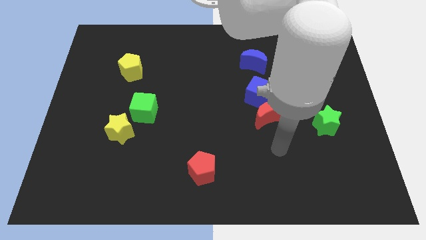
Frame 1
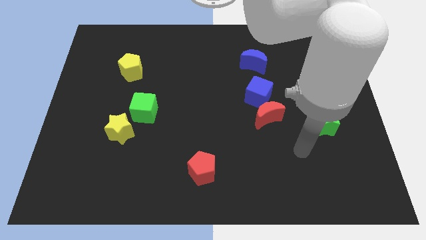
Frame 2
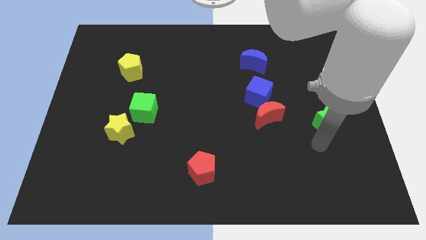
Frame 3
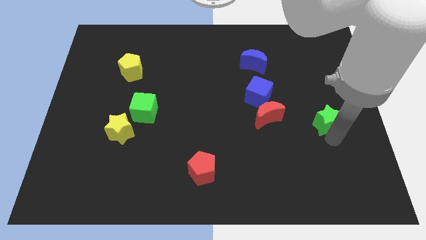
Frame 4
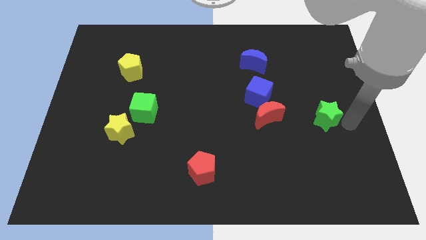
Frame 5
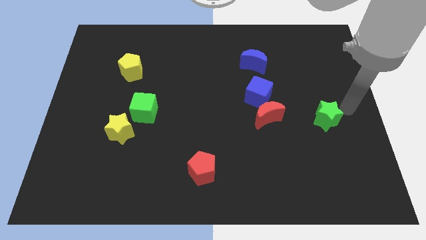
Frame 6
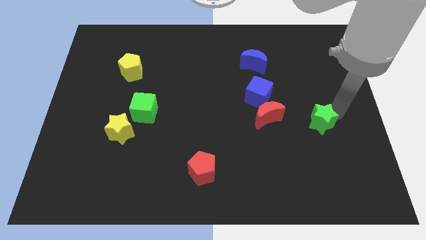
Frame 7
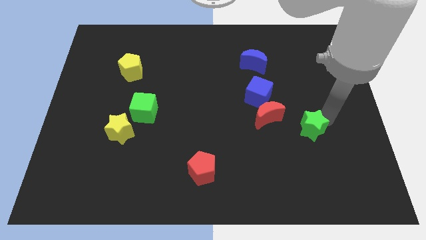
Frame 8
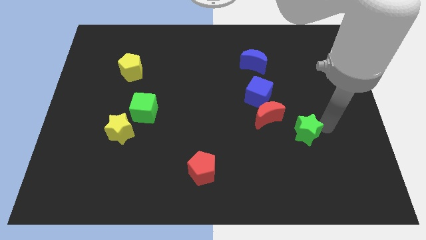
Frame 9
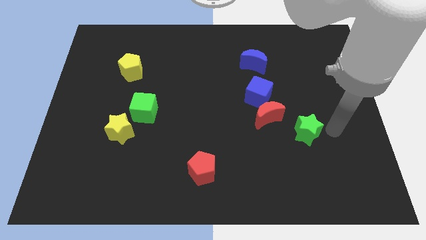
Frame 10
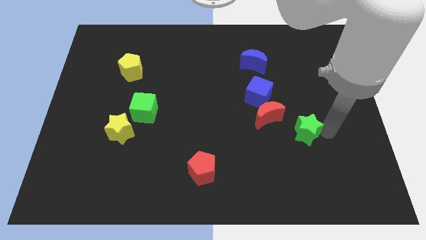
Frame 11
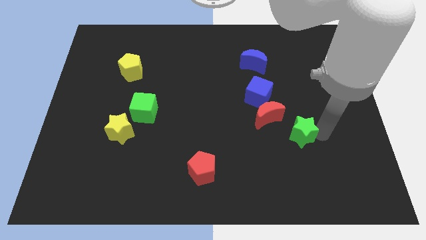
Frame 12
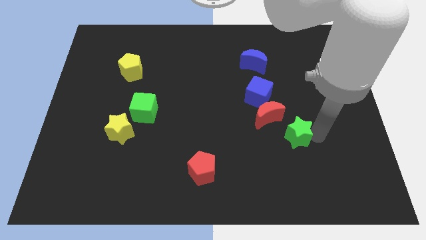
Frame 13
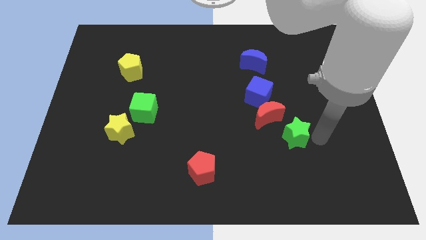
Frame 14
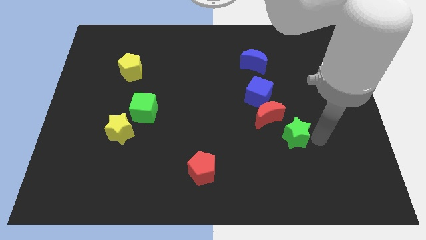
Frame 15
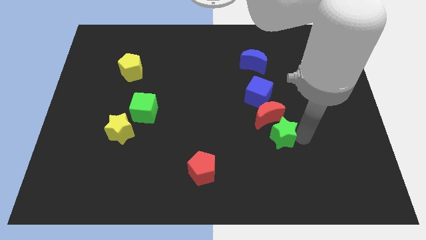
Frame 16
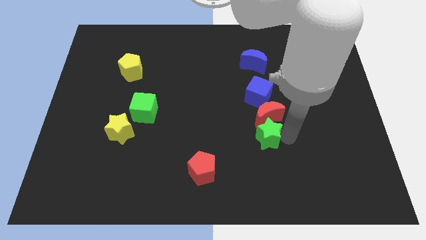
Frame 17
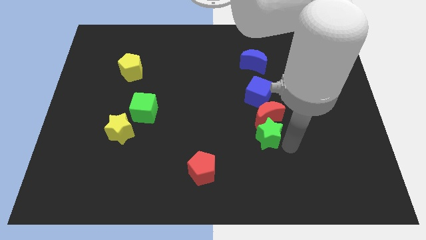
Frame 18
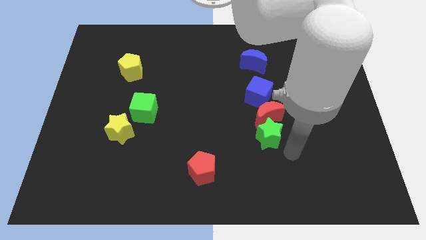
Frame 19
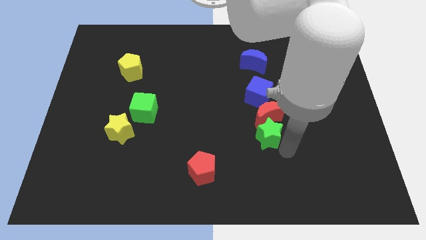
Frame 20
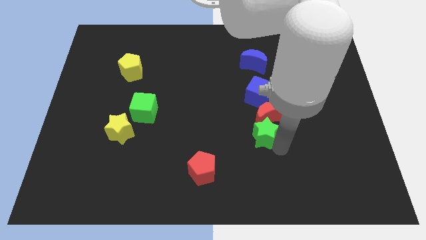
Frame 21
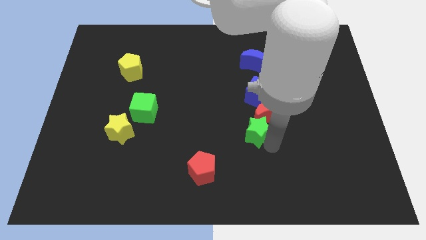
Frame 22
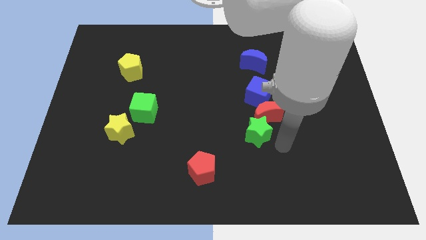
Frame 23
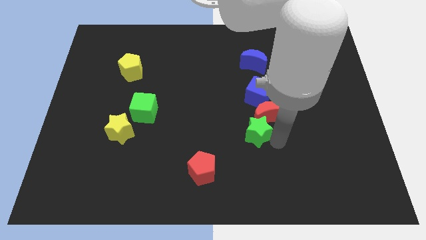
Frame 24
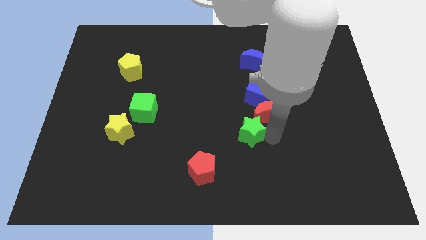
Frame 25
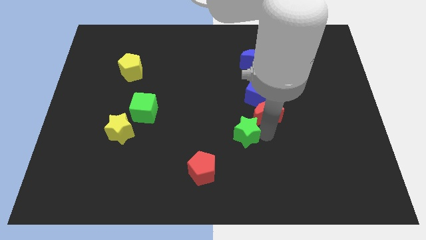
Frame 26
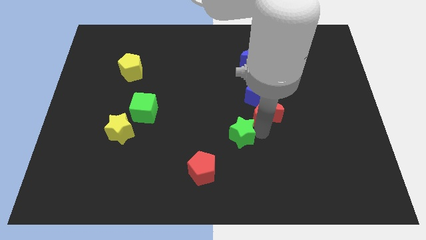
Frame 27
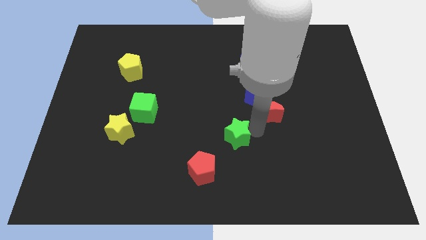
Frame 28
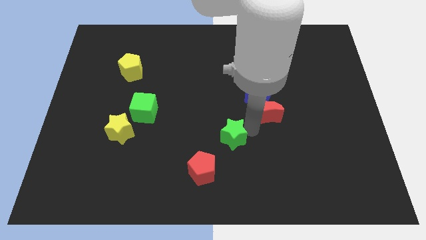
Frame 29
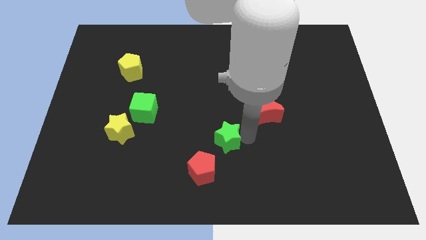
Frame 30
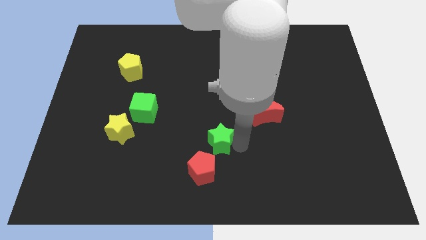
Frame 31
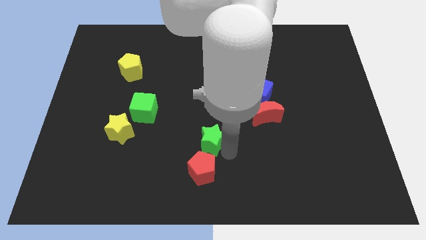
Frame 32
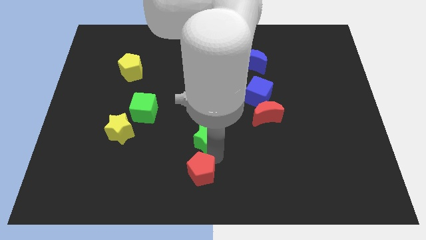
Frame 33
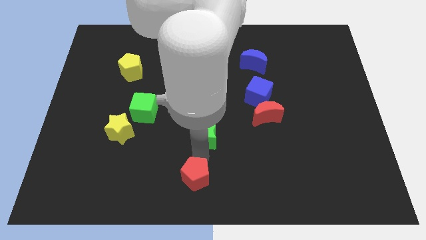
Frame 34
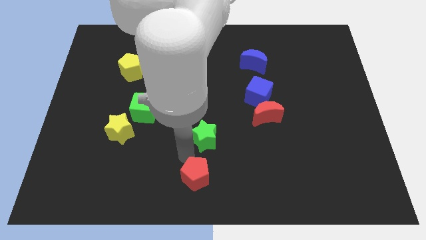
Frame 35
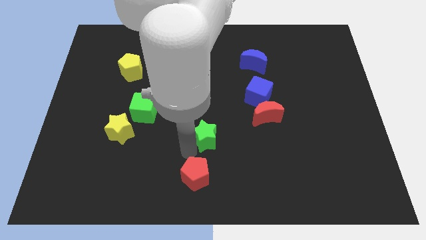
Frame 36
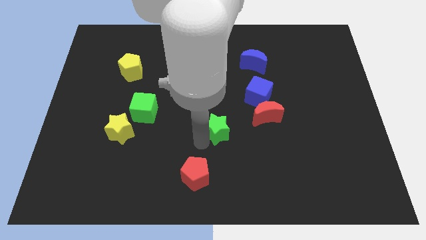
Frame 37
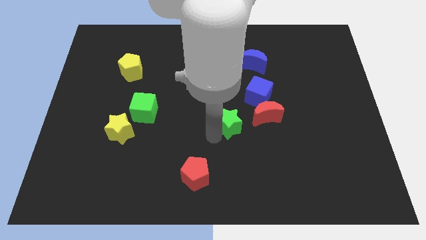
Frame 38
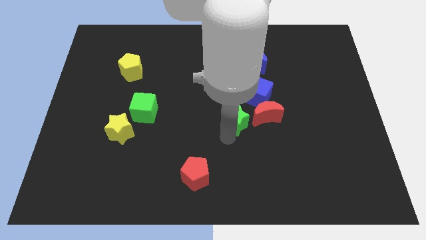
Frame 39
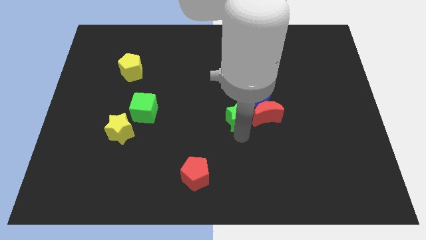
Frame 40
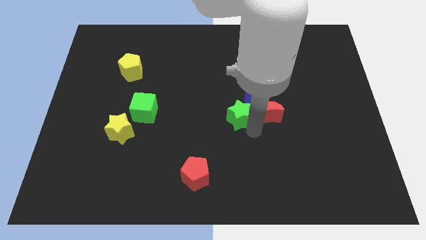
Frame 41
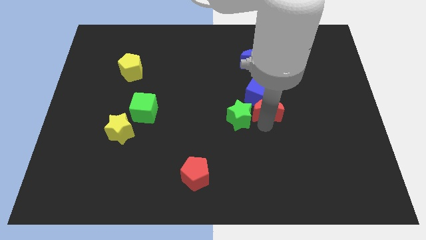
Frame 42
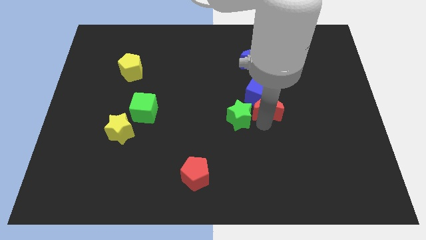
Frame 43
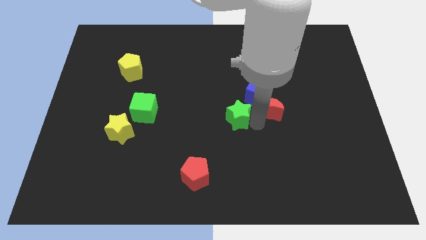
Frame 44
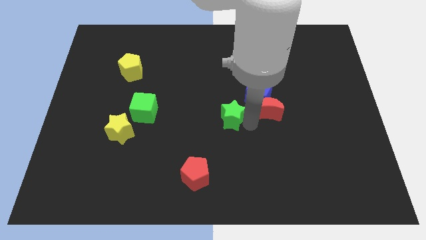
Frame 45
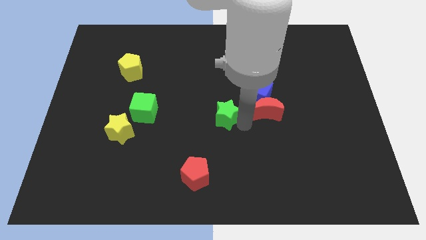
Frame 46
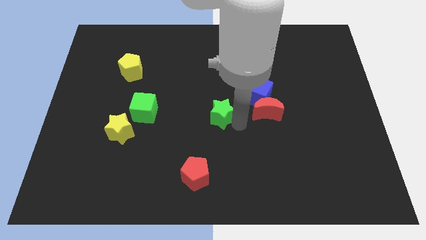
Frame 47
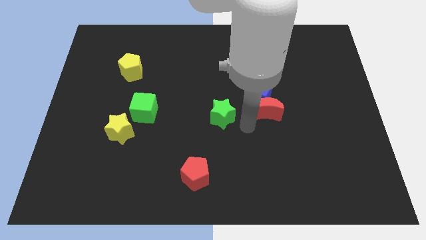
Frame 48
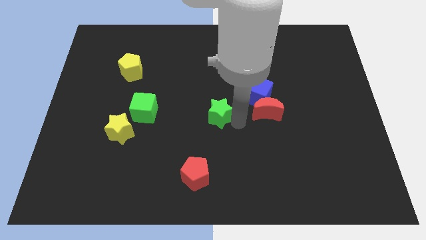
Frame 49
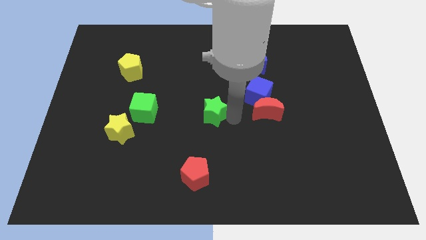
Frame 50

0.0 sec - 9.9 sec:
push the green star just right of the green cube

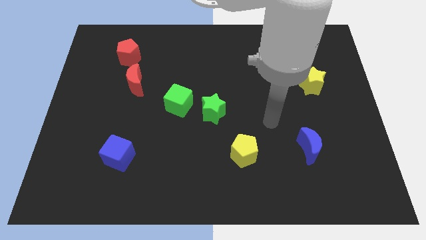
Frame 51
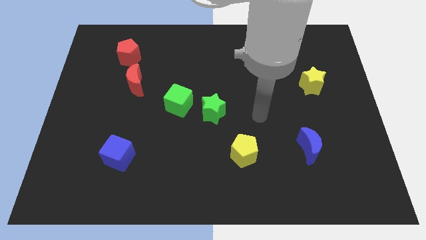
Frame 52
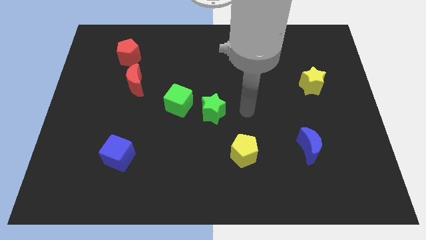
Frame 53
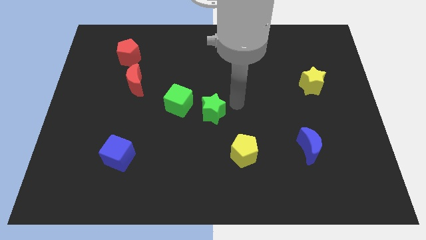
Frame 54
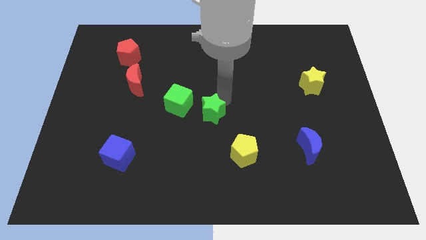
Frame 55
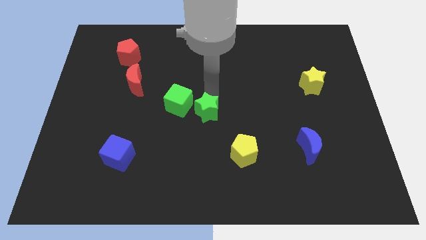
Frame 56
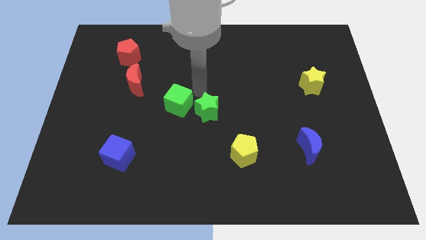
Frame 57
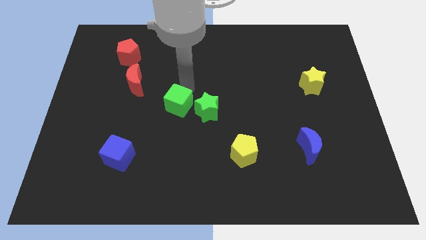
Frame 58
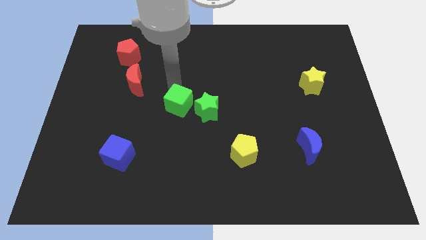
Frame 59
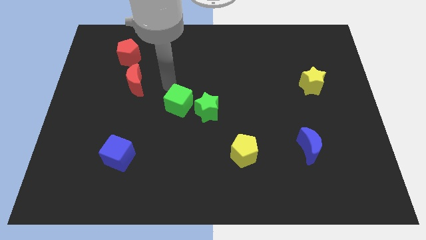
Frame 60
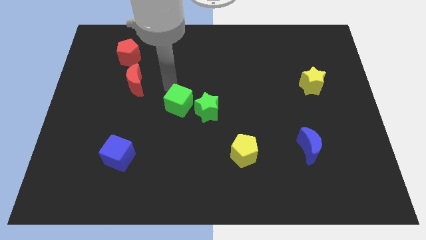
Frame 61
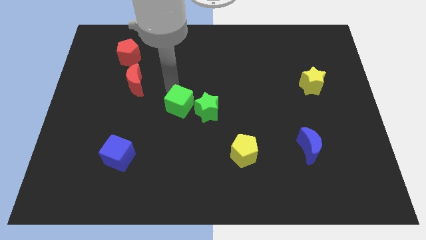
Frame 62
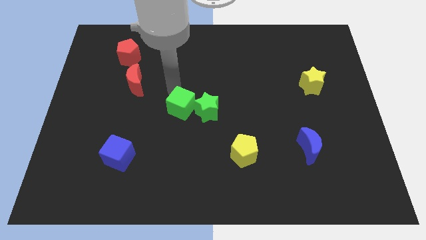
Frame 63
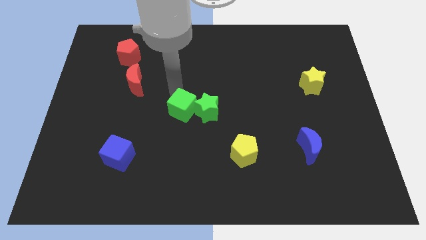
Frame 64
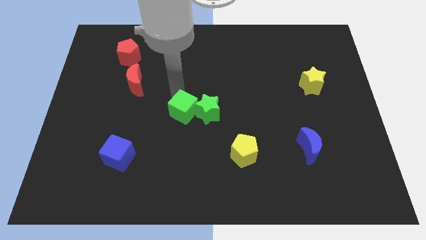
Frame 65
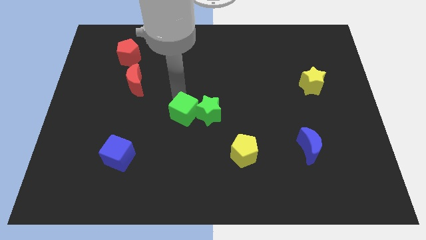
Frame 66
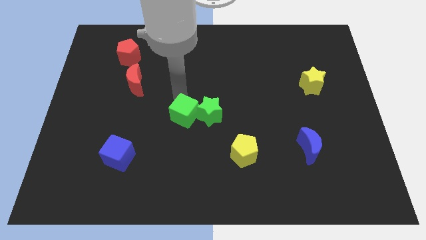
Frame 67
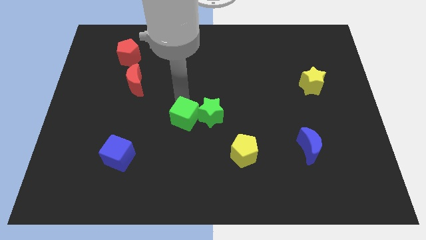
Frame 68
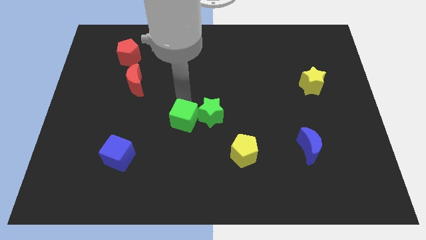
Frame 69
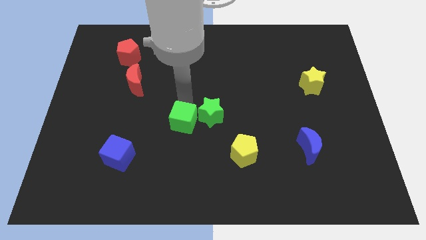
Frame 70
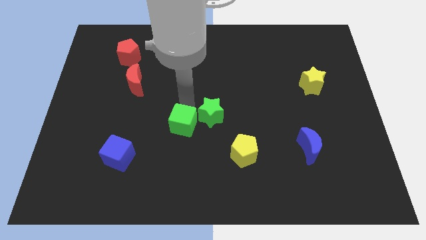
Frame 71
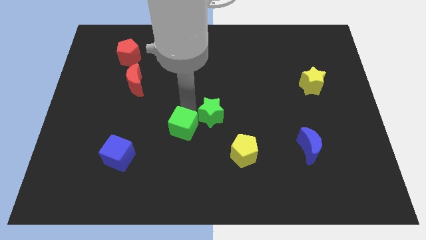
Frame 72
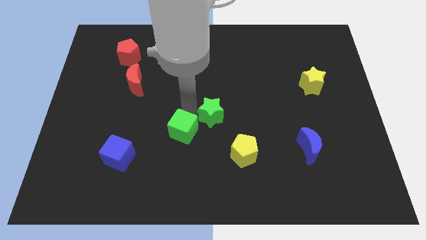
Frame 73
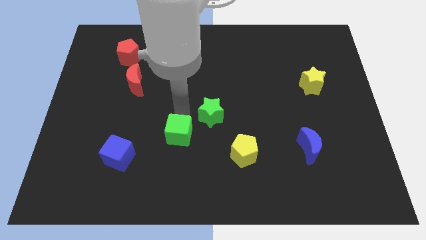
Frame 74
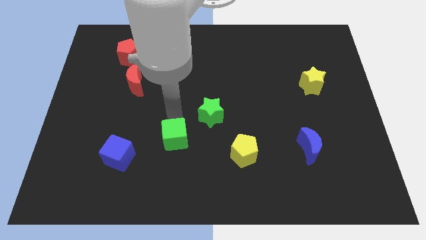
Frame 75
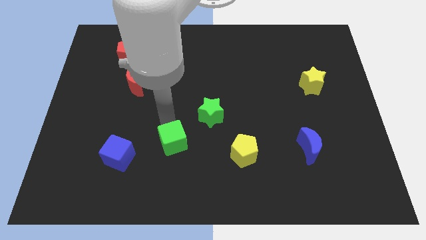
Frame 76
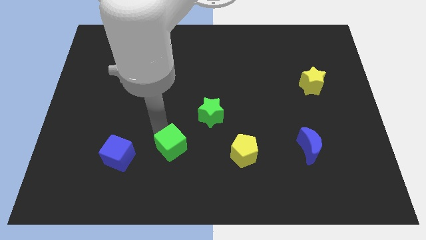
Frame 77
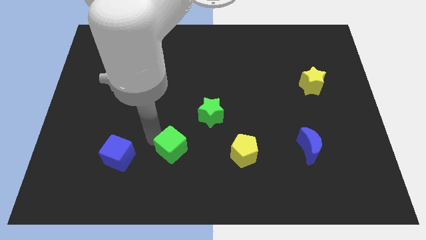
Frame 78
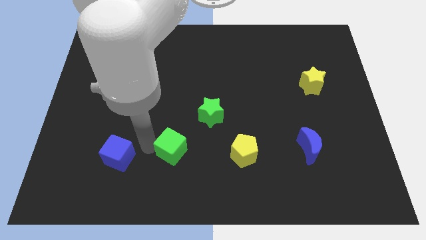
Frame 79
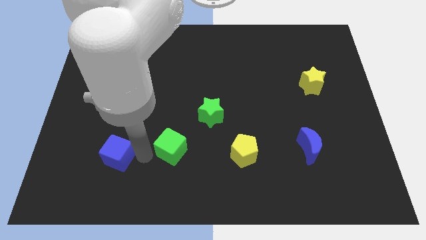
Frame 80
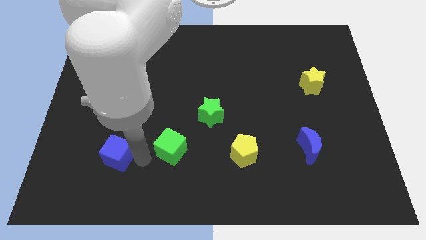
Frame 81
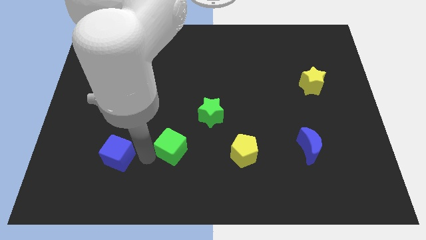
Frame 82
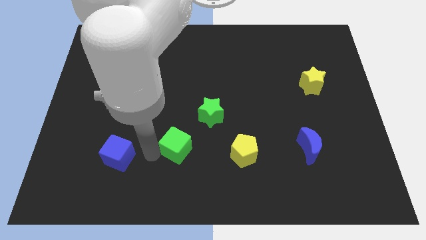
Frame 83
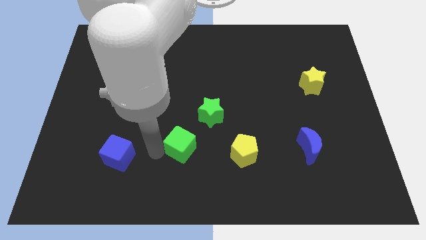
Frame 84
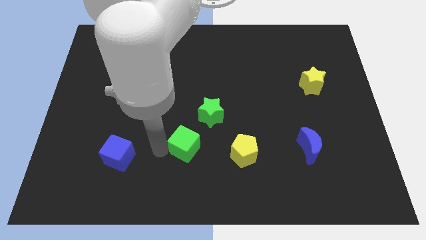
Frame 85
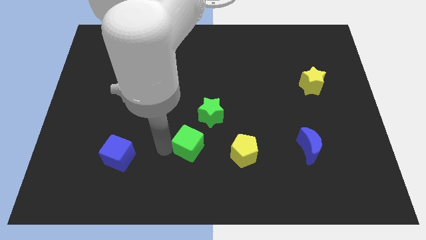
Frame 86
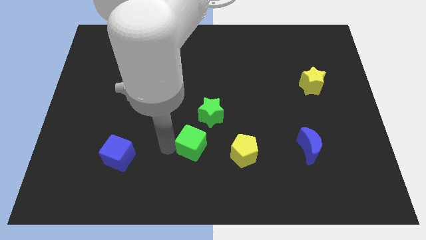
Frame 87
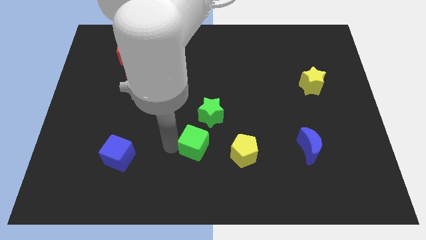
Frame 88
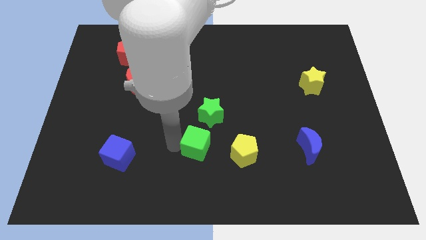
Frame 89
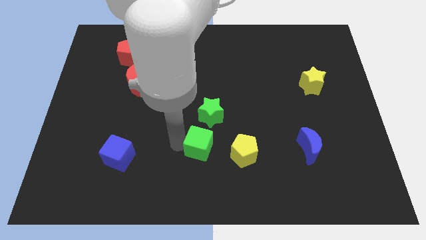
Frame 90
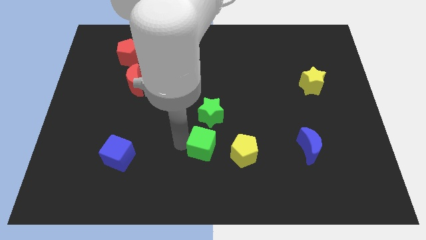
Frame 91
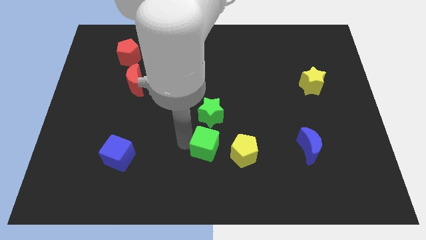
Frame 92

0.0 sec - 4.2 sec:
slide the green cube diagonally up and to the left of the yellow pentagon
